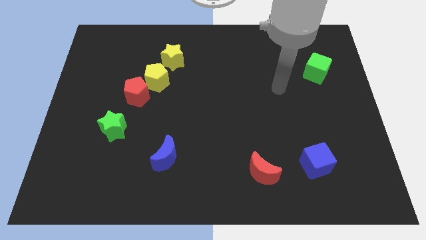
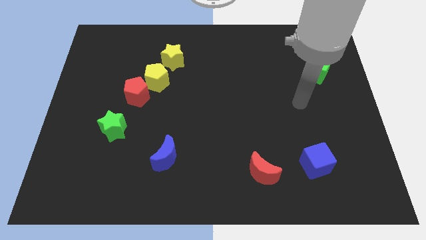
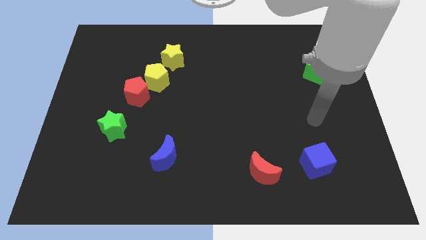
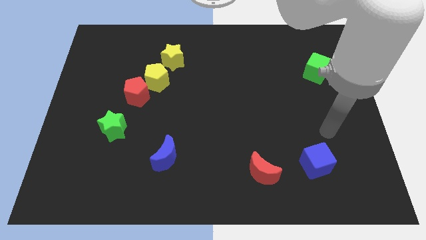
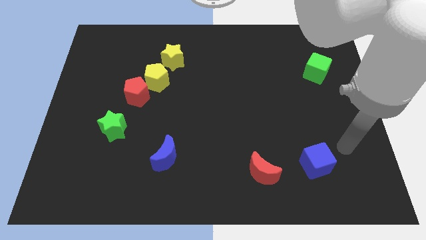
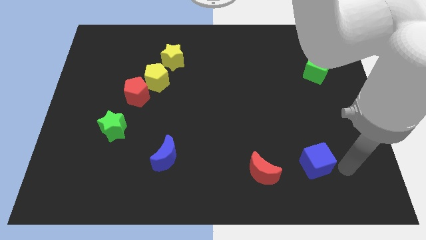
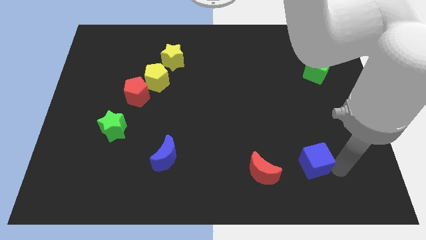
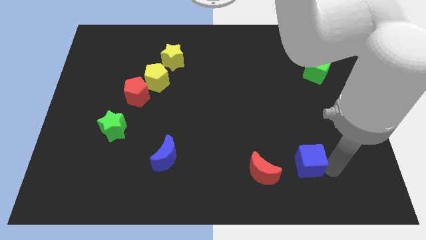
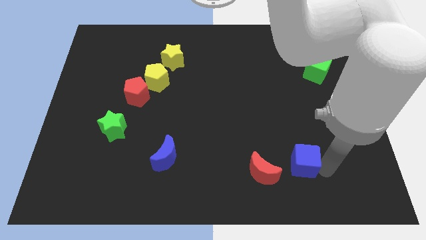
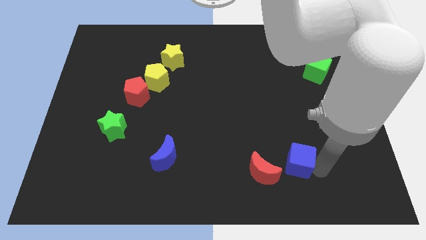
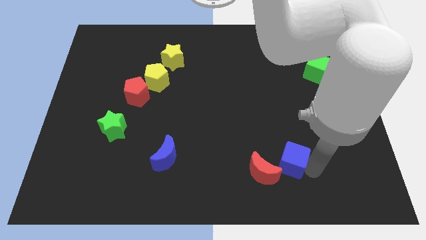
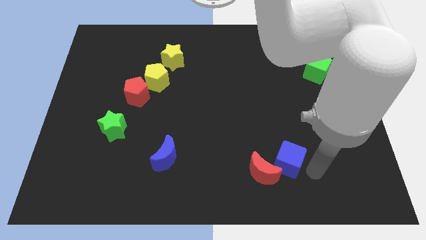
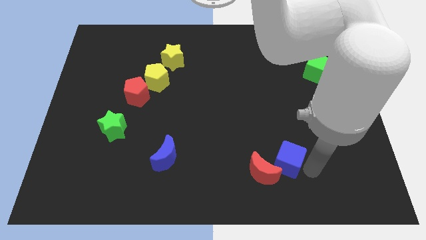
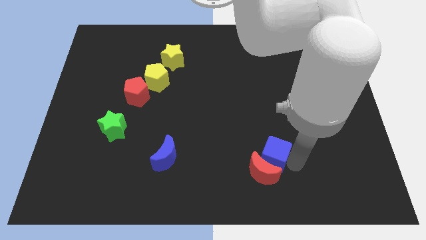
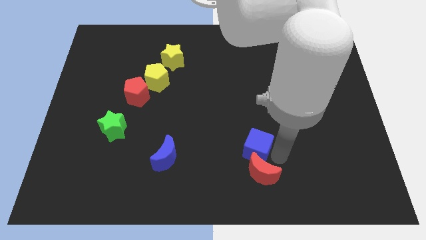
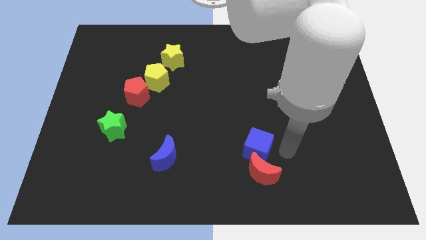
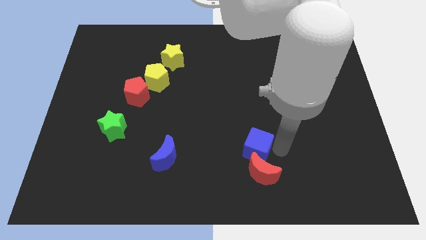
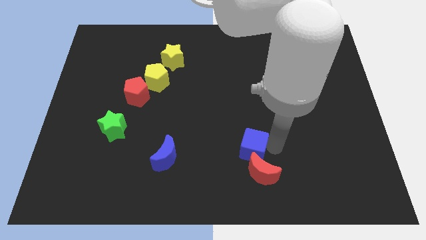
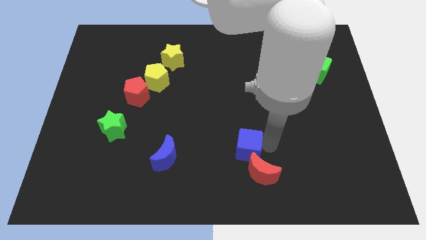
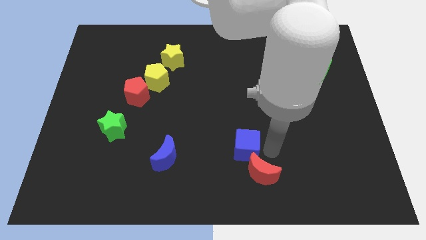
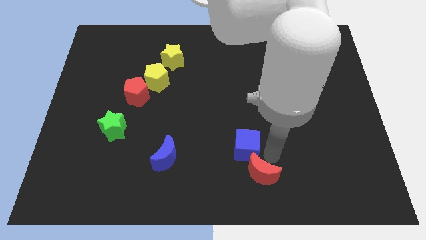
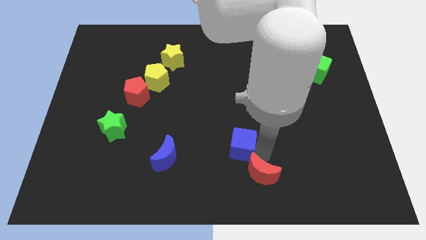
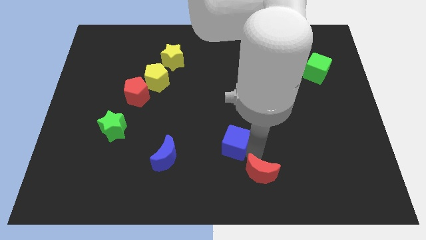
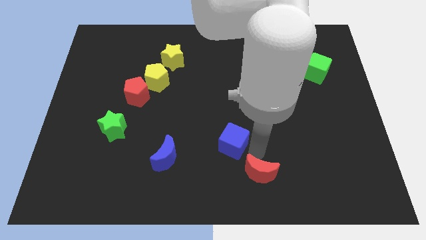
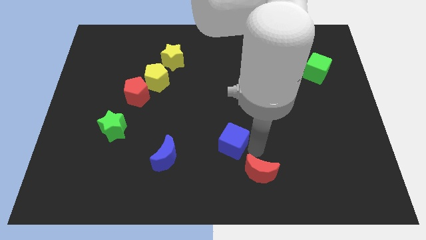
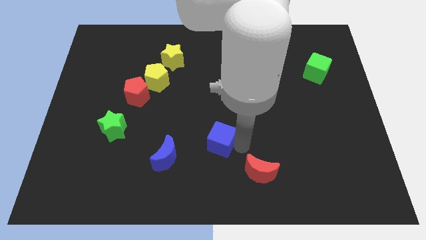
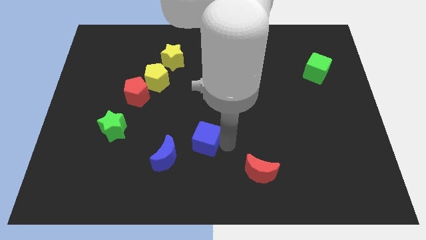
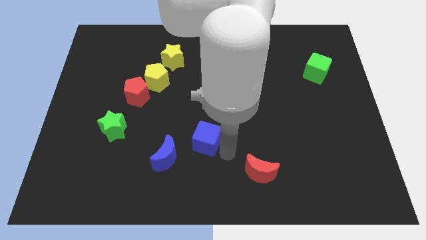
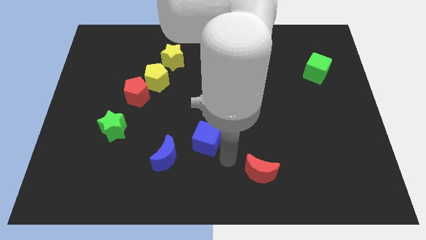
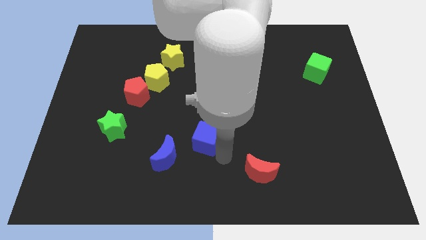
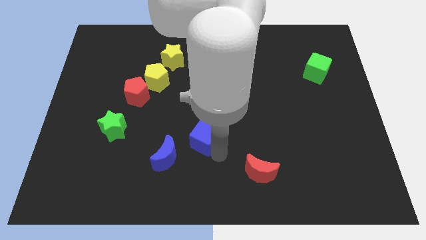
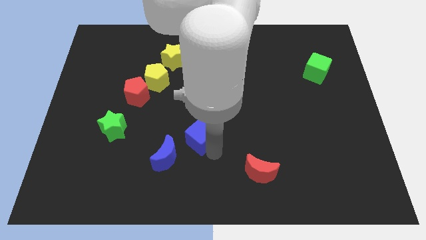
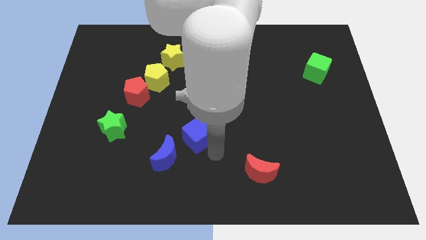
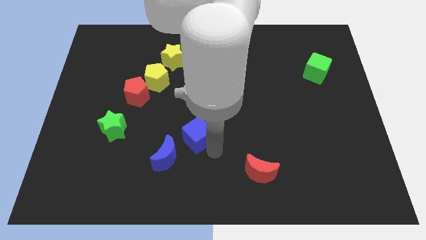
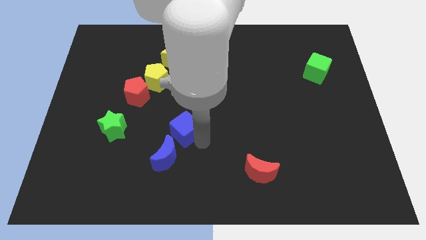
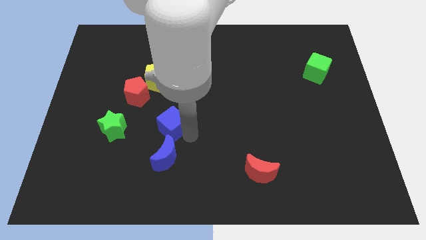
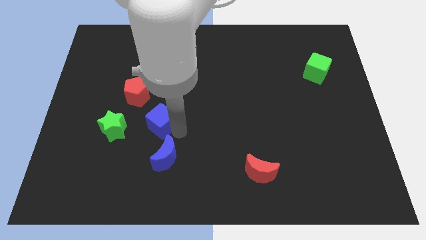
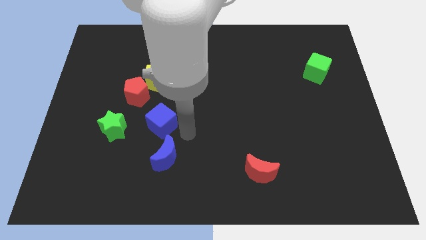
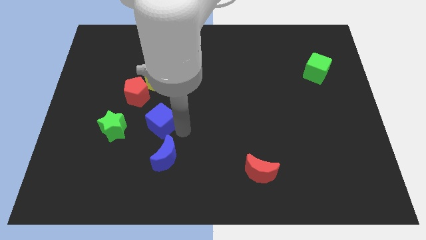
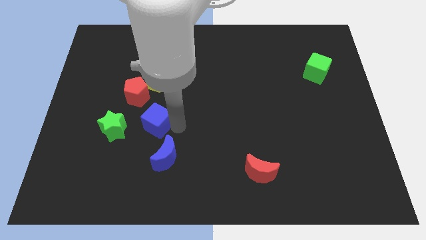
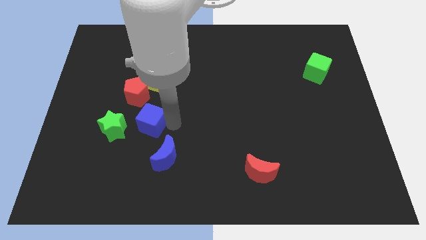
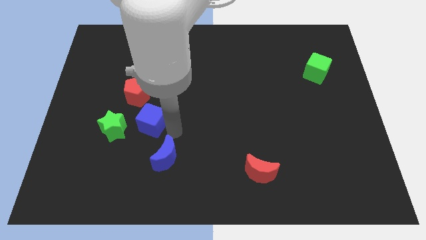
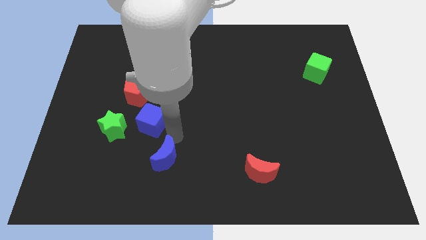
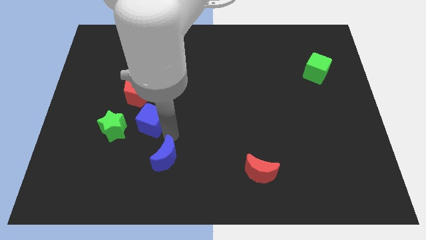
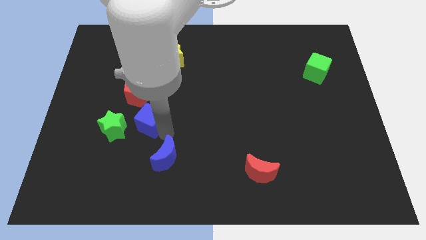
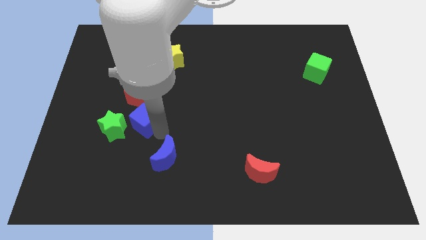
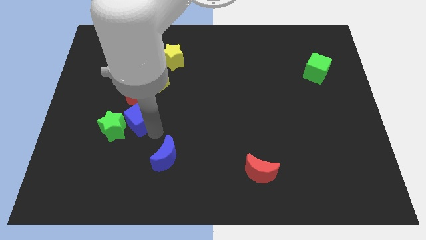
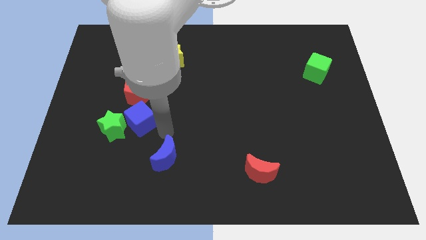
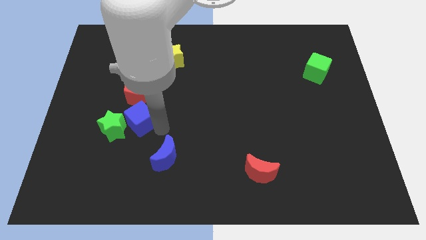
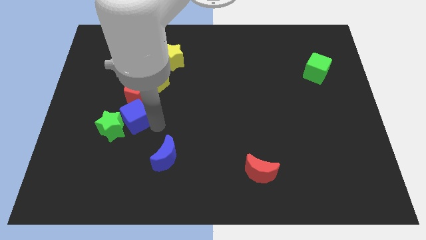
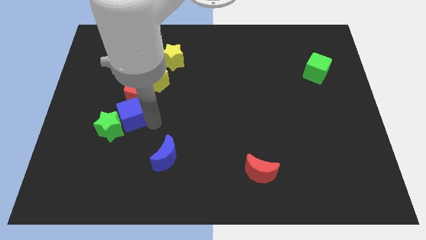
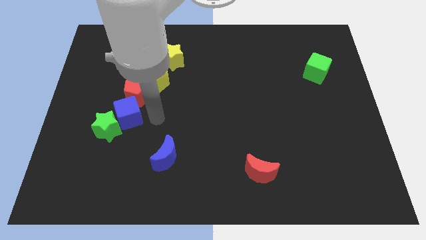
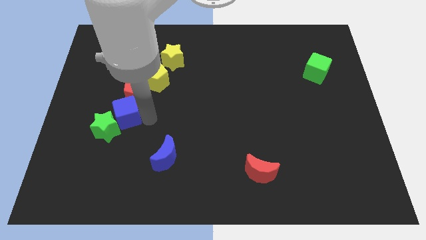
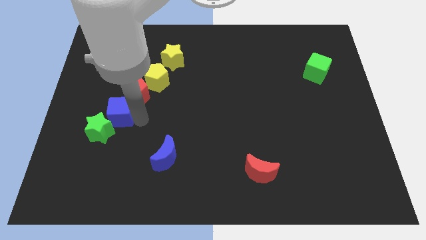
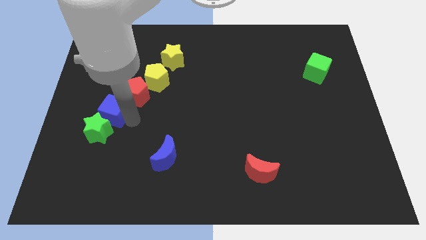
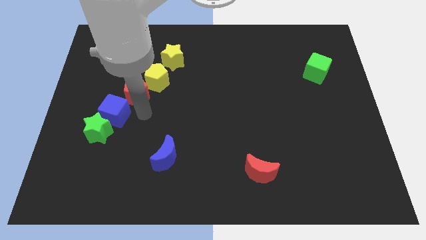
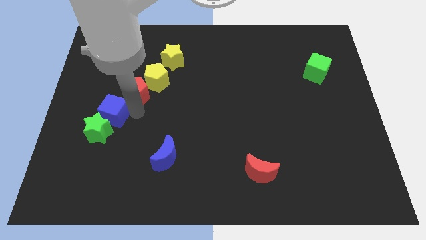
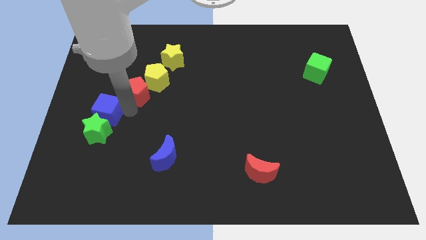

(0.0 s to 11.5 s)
push the blue cube to the top left of the green star

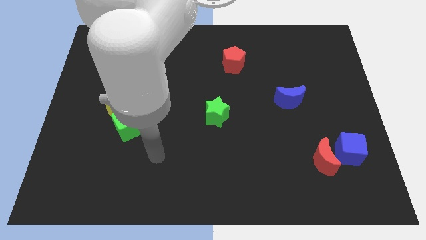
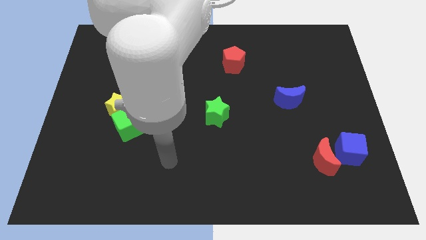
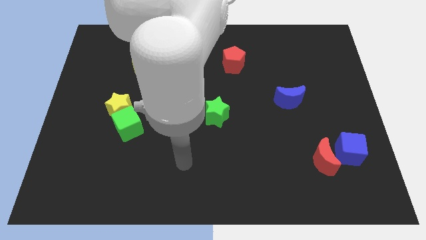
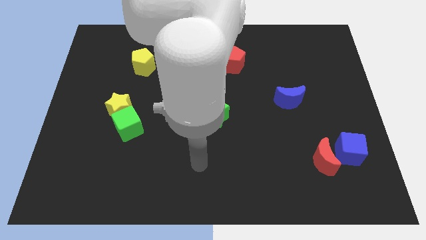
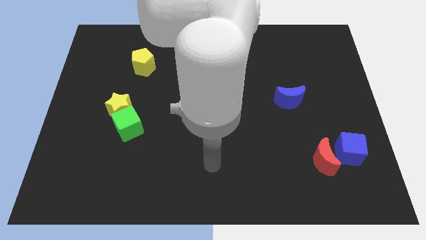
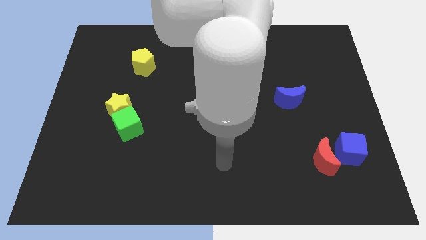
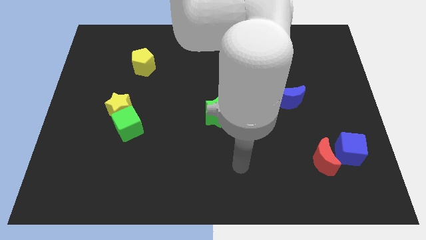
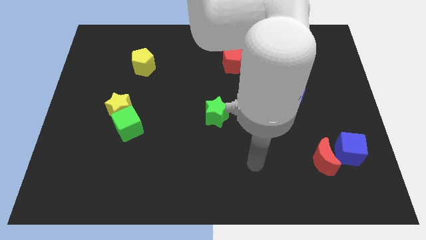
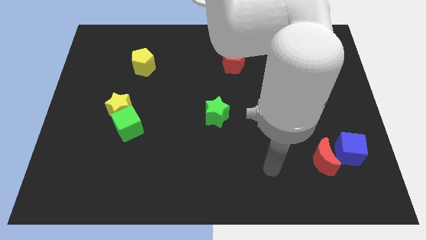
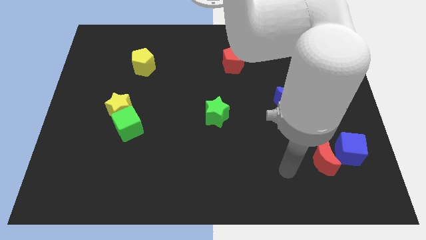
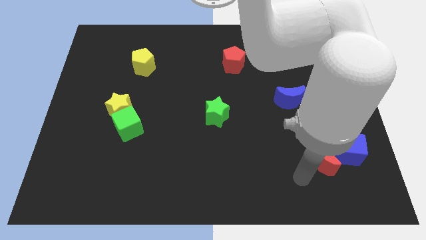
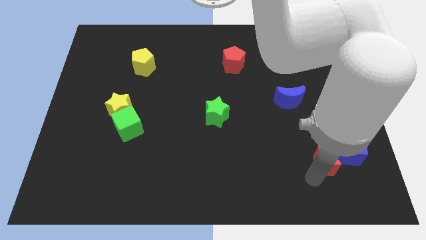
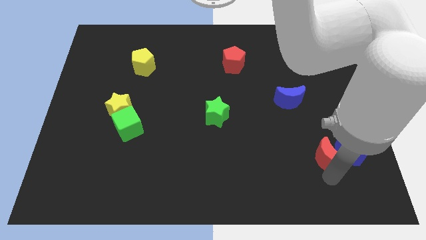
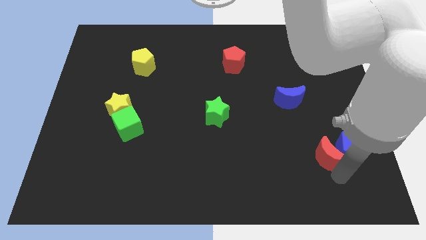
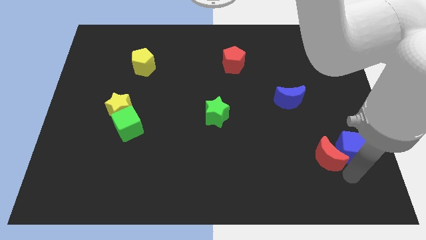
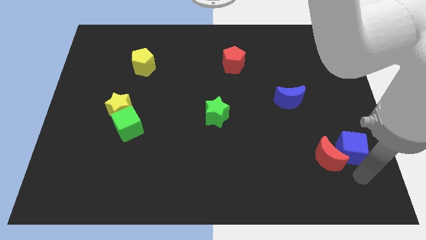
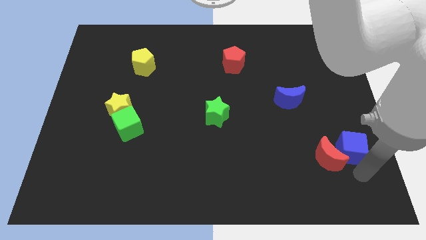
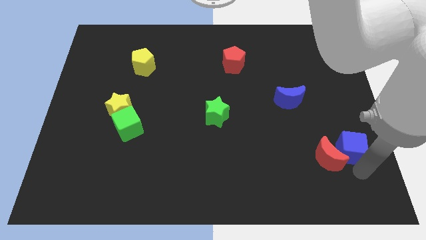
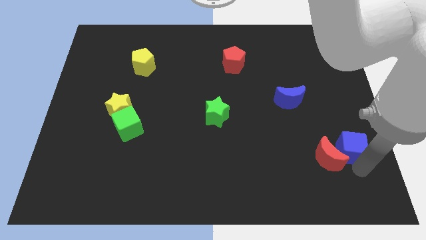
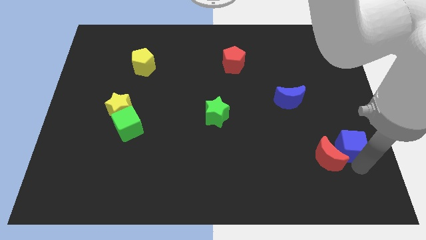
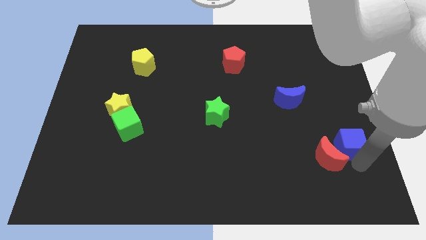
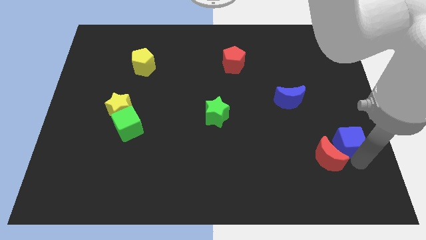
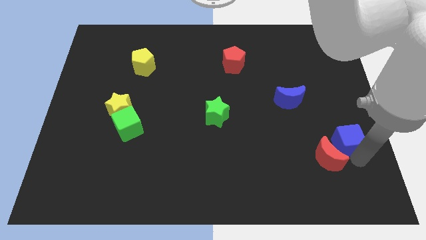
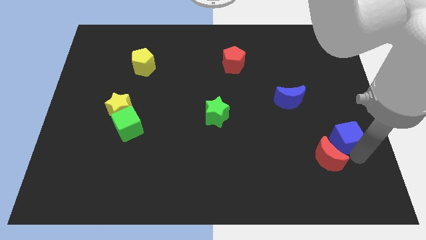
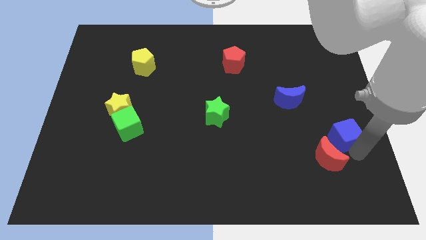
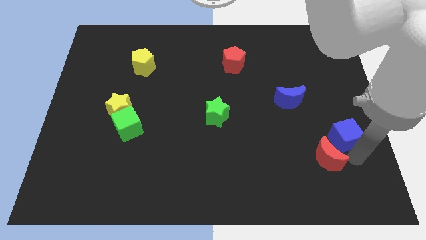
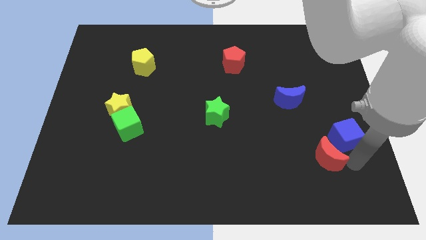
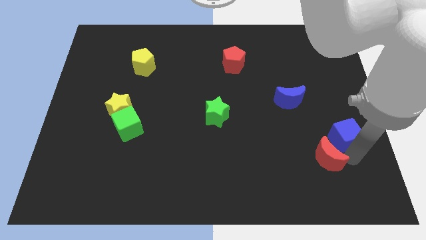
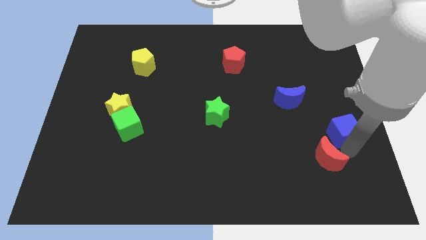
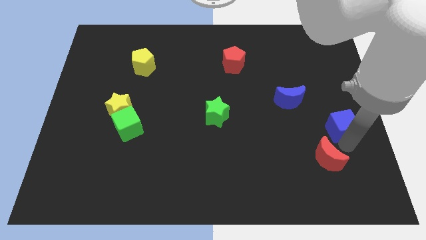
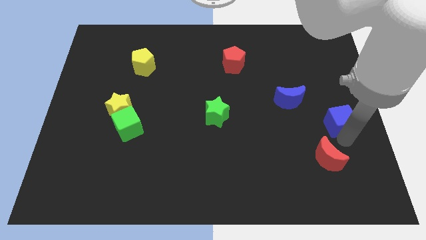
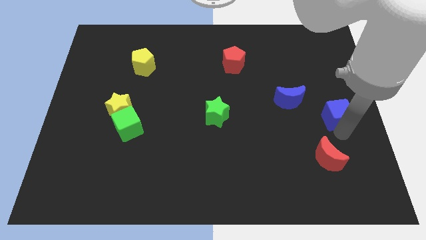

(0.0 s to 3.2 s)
slide the blue cube to the right side of the blue moon
